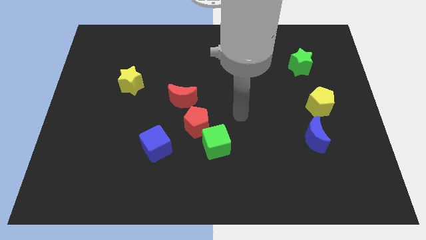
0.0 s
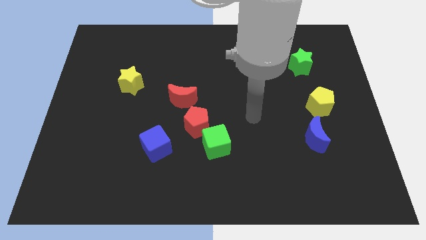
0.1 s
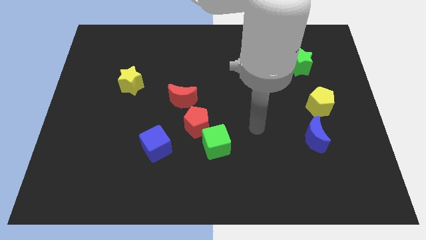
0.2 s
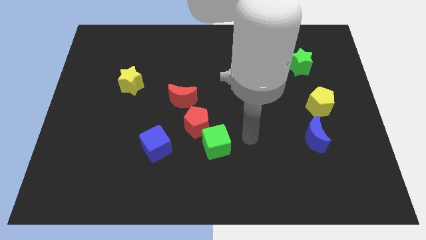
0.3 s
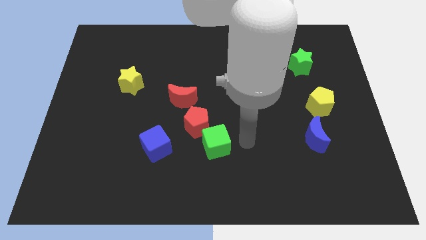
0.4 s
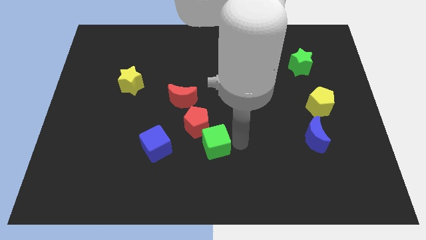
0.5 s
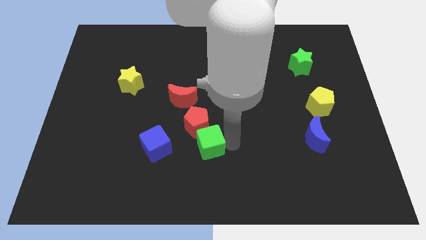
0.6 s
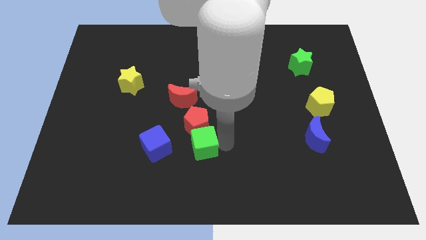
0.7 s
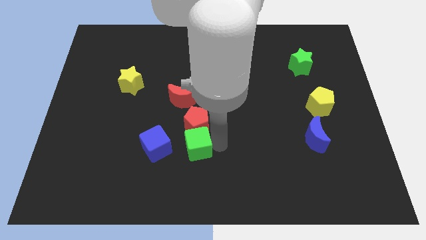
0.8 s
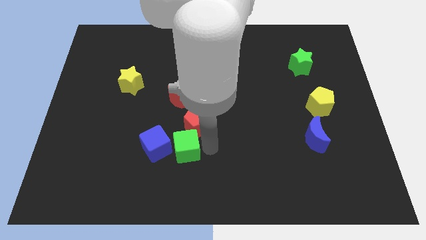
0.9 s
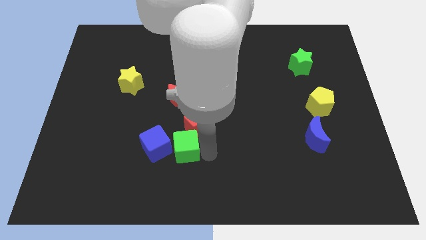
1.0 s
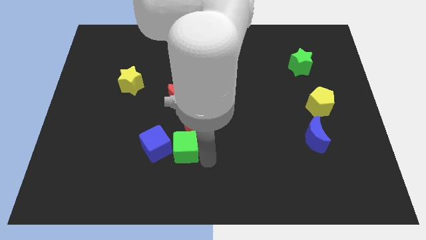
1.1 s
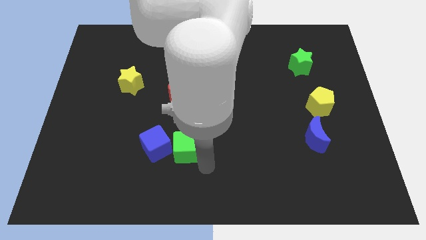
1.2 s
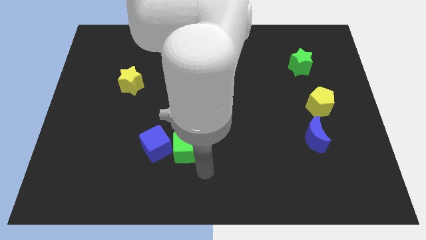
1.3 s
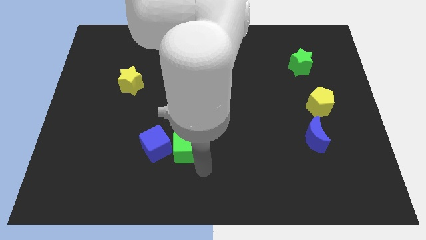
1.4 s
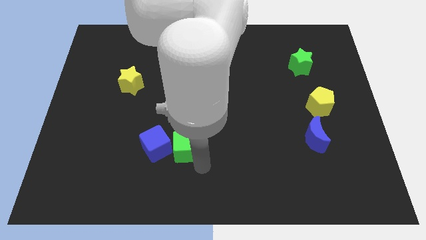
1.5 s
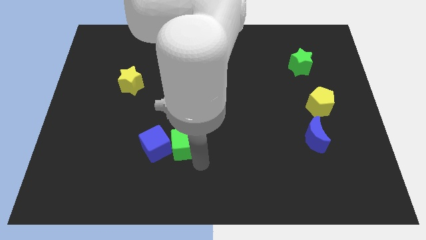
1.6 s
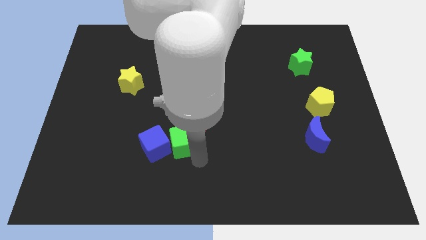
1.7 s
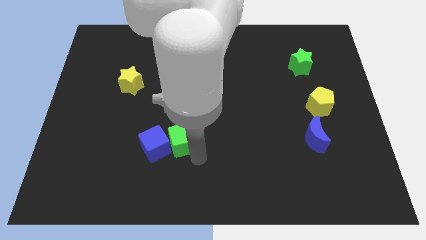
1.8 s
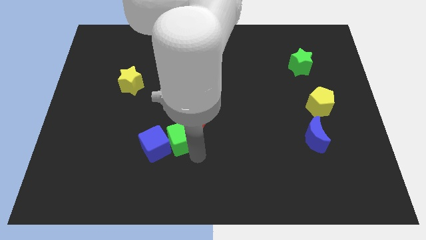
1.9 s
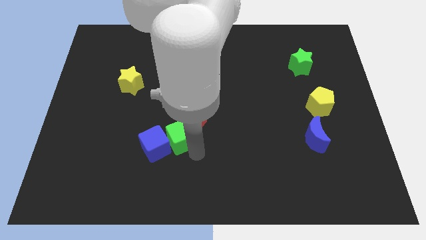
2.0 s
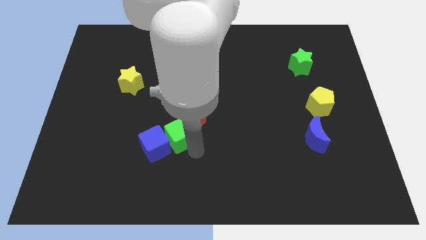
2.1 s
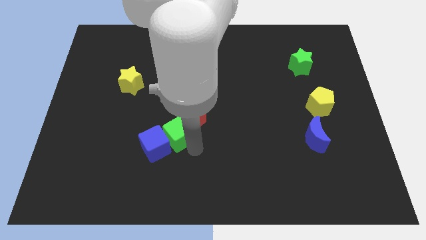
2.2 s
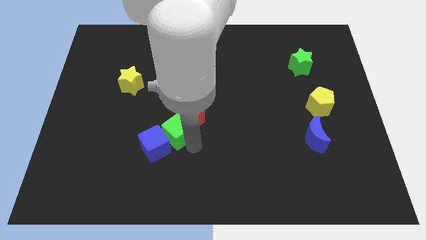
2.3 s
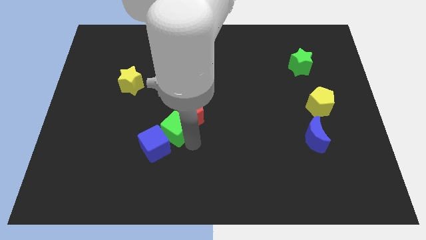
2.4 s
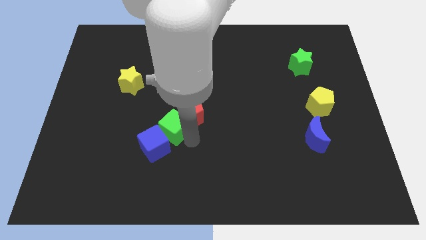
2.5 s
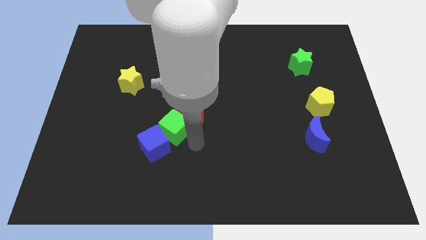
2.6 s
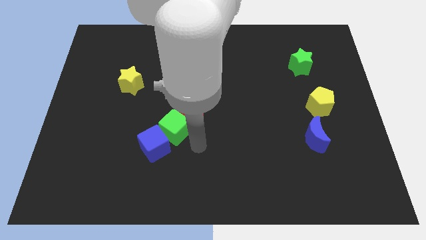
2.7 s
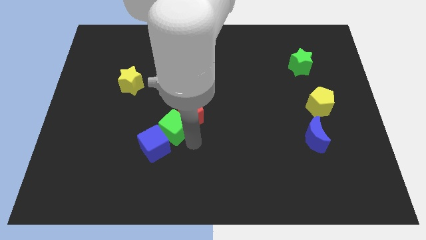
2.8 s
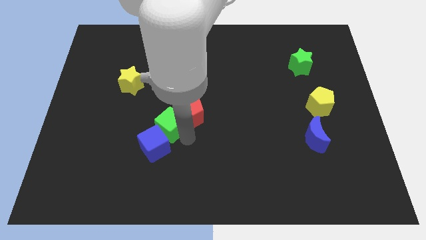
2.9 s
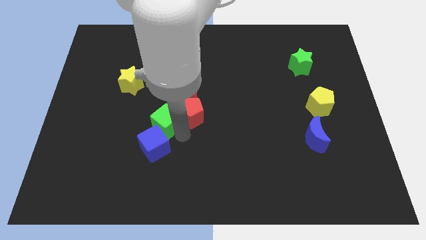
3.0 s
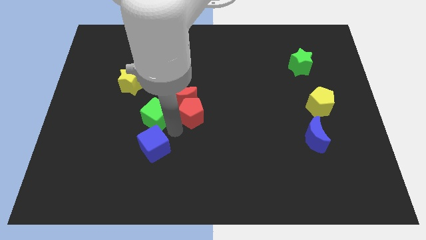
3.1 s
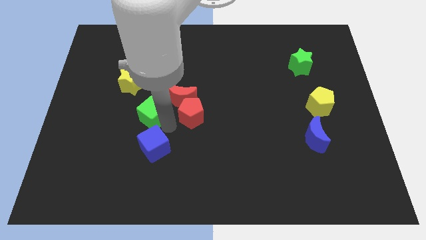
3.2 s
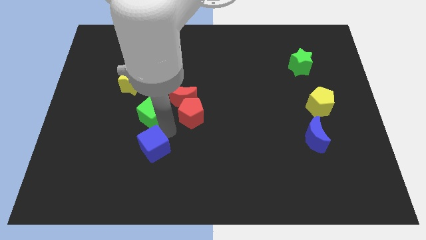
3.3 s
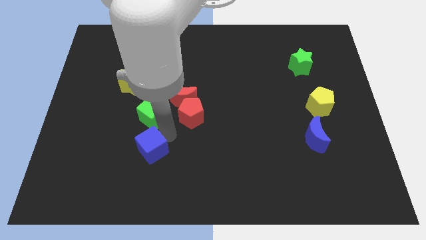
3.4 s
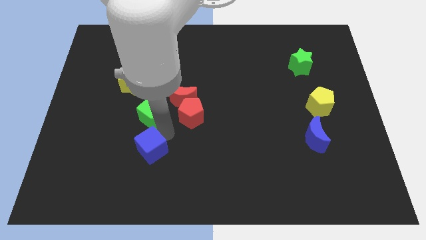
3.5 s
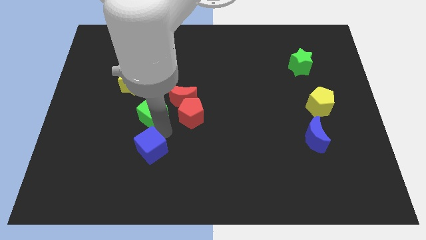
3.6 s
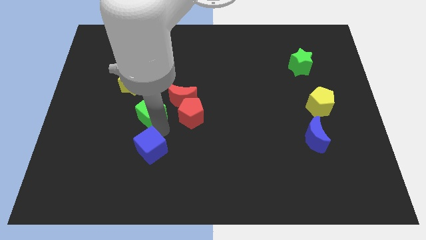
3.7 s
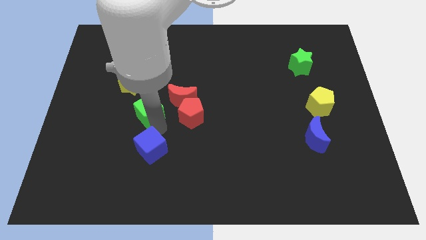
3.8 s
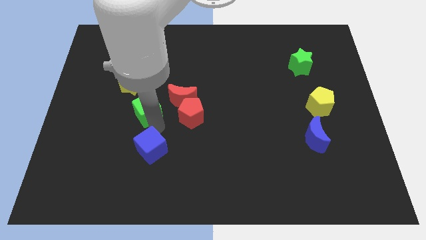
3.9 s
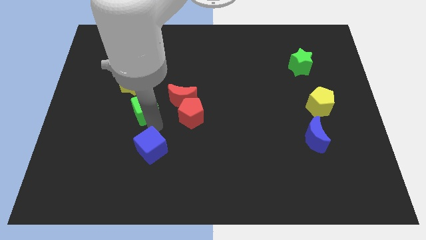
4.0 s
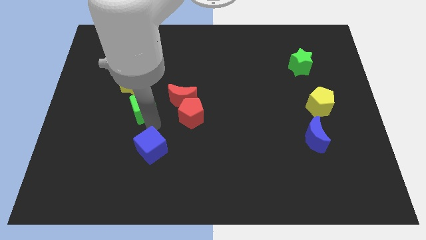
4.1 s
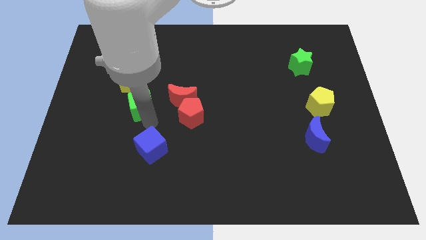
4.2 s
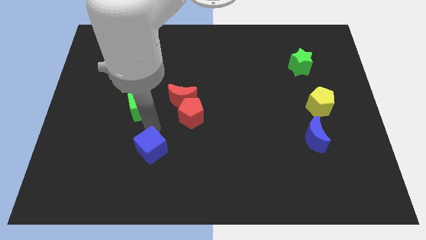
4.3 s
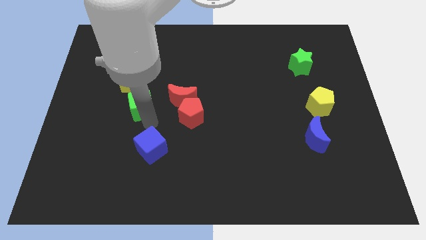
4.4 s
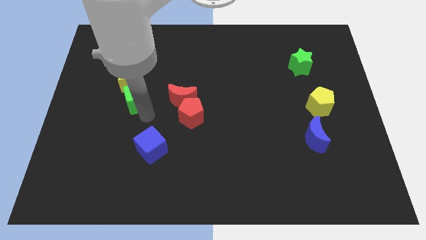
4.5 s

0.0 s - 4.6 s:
move the green cube to the yellow star

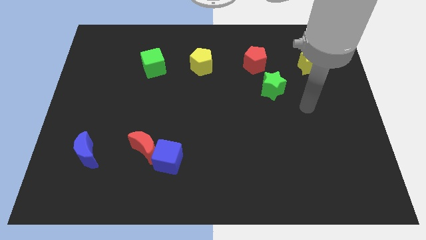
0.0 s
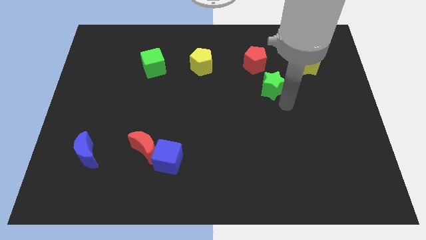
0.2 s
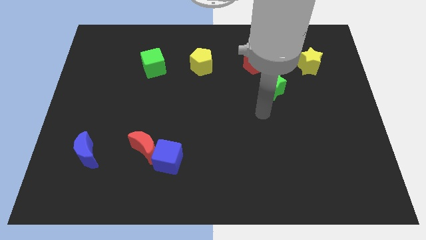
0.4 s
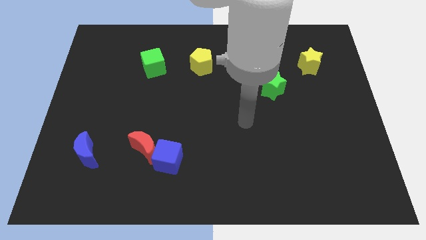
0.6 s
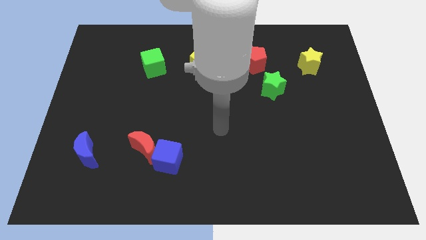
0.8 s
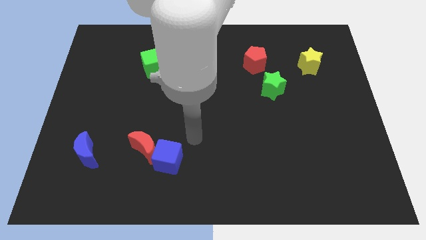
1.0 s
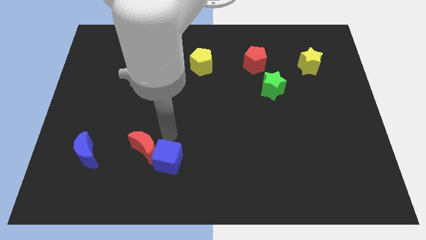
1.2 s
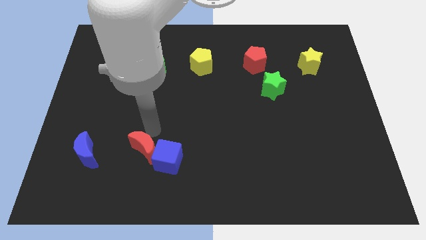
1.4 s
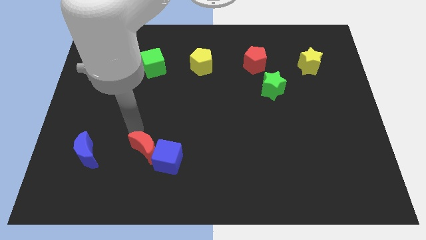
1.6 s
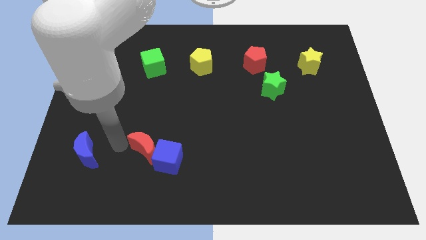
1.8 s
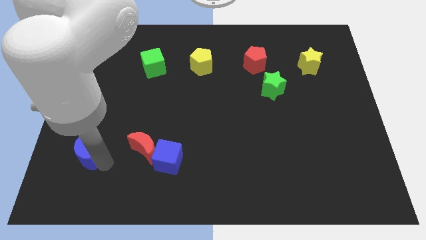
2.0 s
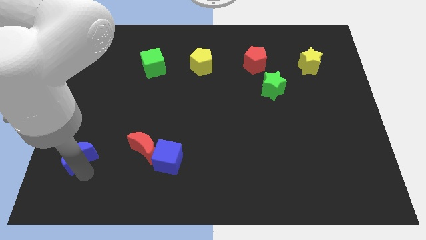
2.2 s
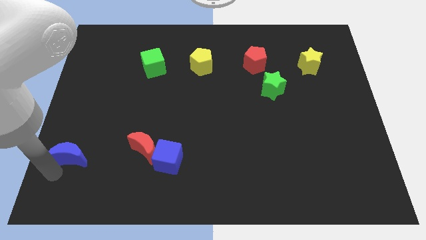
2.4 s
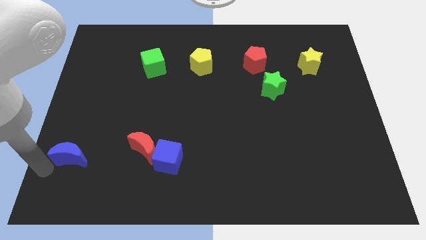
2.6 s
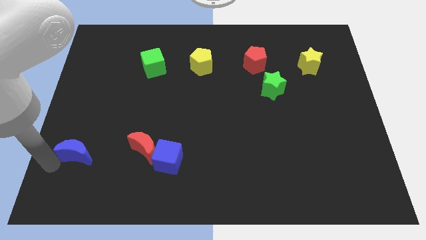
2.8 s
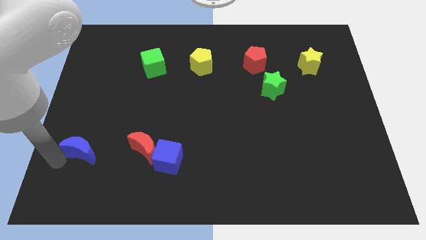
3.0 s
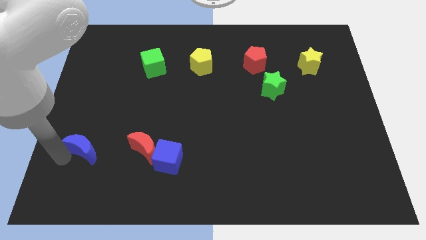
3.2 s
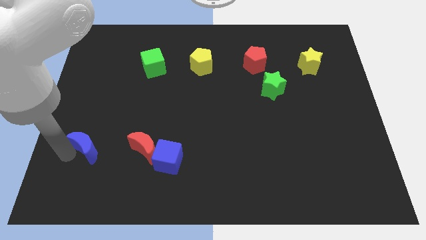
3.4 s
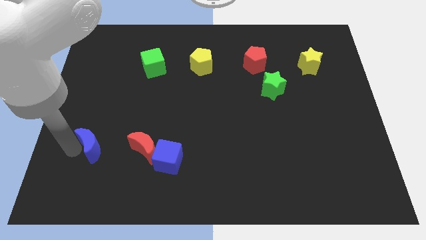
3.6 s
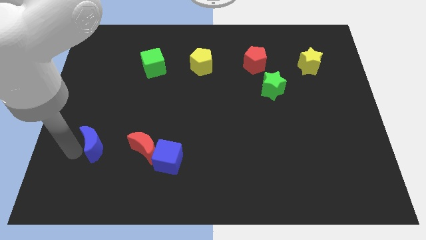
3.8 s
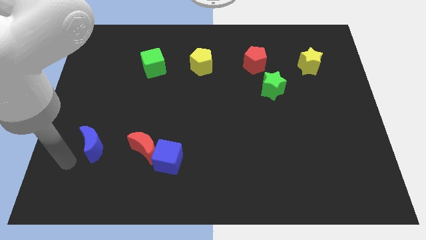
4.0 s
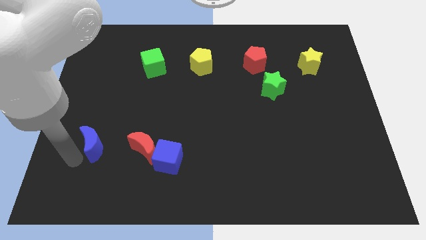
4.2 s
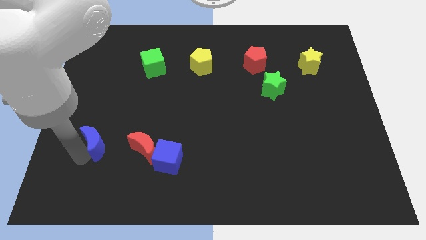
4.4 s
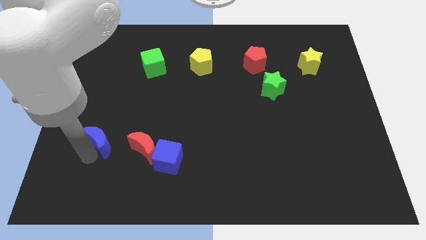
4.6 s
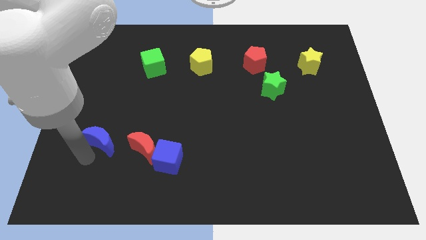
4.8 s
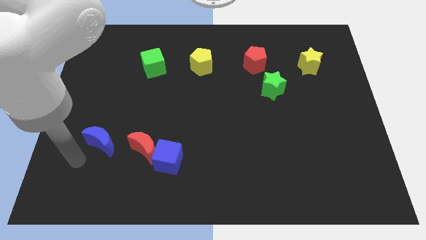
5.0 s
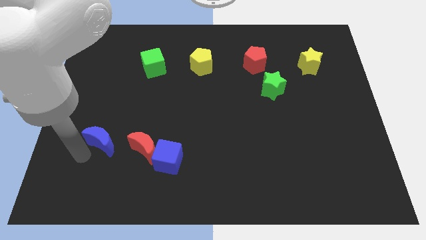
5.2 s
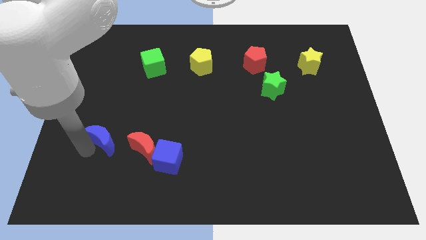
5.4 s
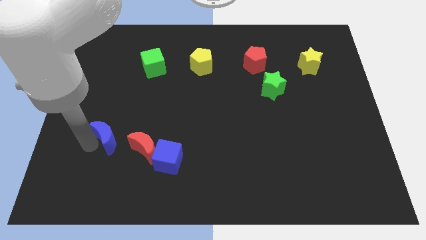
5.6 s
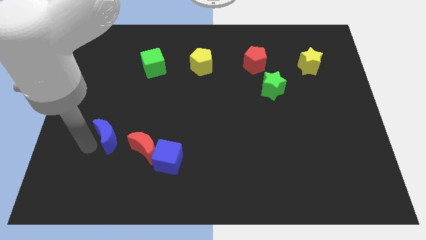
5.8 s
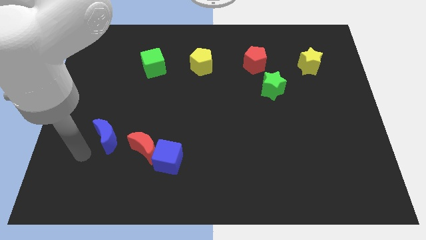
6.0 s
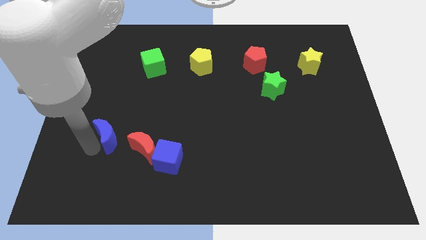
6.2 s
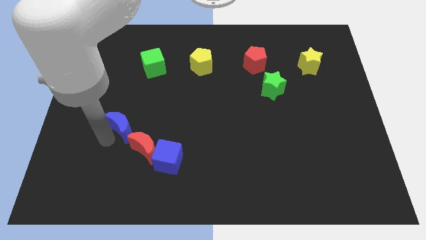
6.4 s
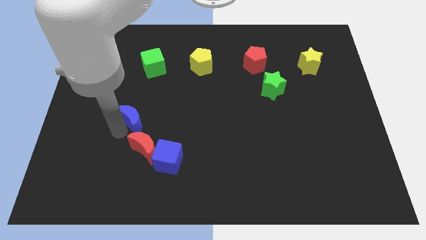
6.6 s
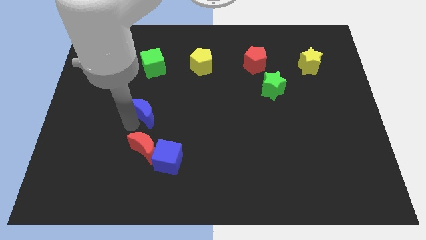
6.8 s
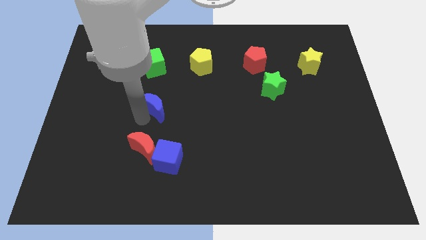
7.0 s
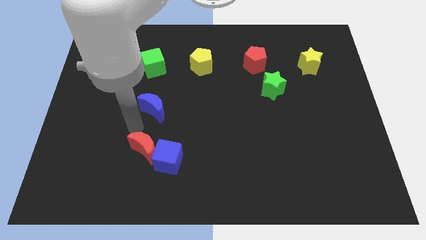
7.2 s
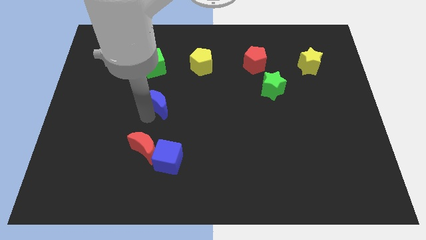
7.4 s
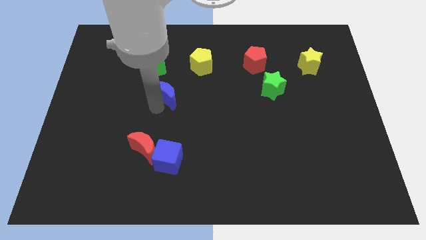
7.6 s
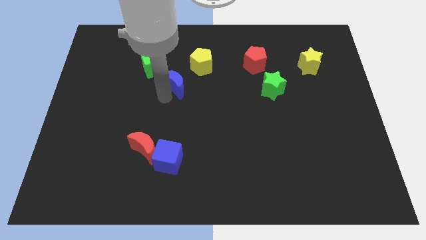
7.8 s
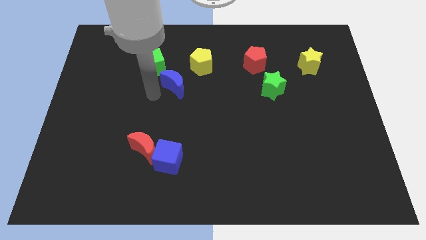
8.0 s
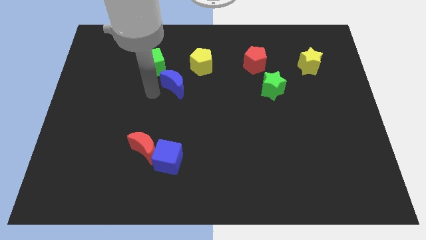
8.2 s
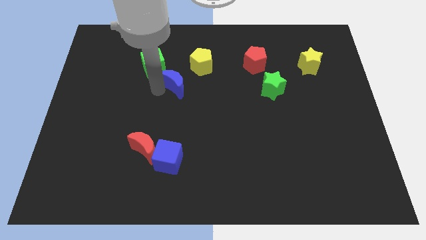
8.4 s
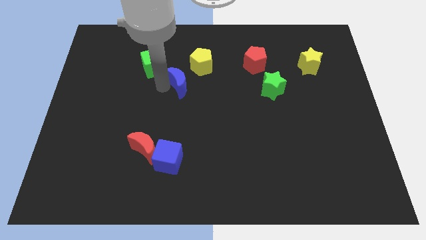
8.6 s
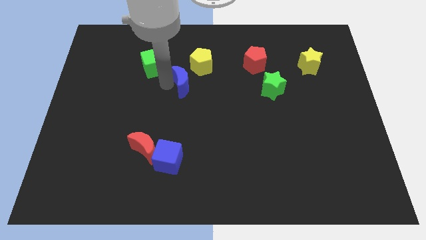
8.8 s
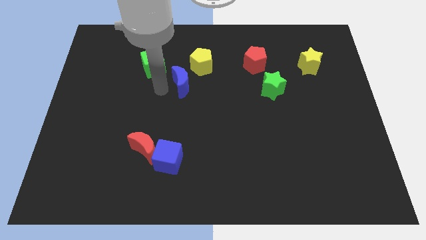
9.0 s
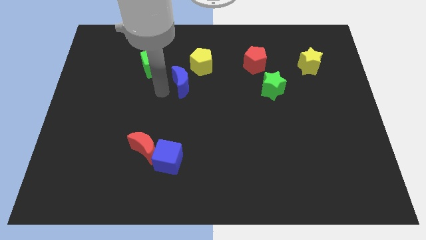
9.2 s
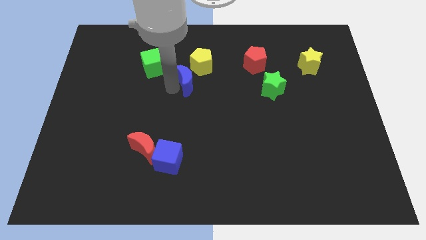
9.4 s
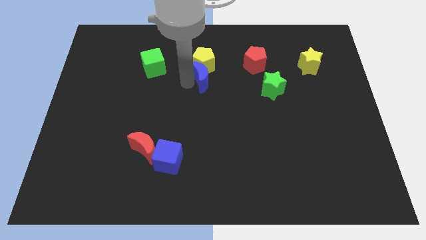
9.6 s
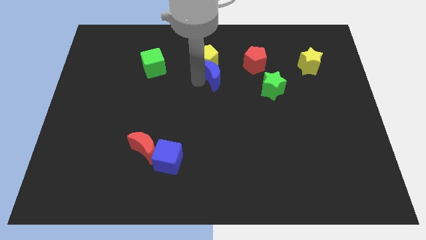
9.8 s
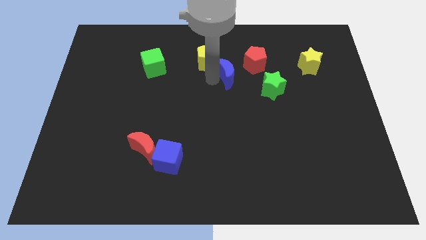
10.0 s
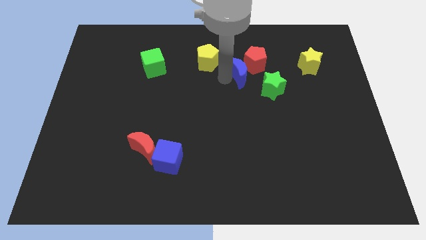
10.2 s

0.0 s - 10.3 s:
push the blue moon towards the red pentagon
